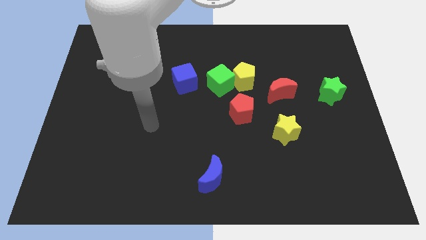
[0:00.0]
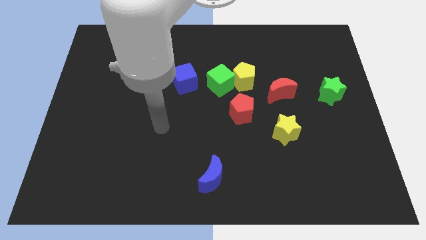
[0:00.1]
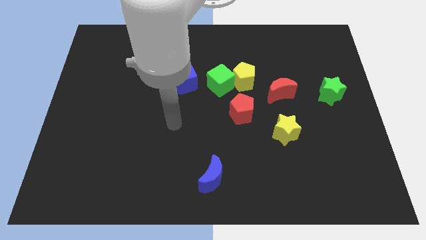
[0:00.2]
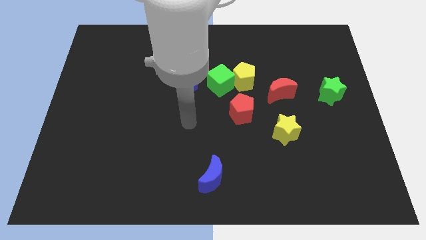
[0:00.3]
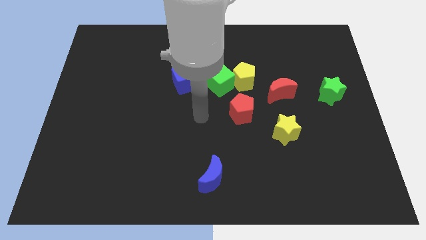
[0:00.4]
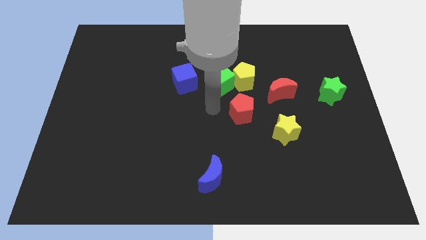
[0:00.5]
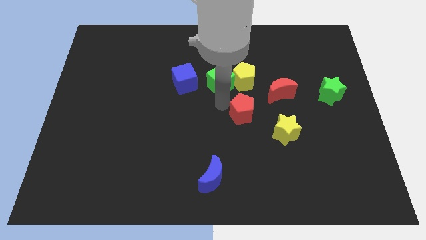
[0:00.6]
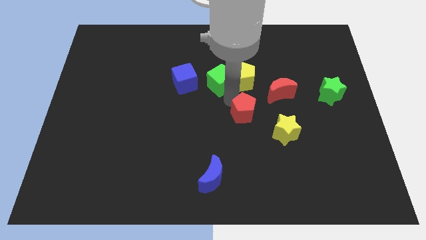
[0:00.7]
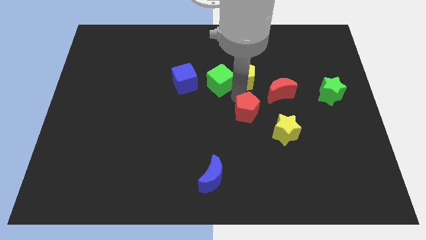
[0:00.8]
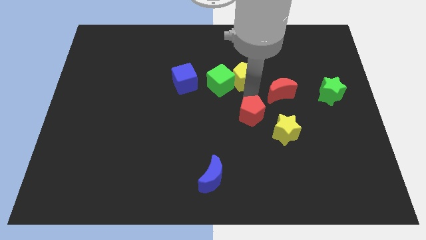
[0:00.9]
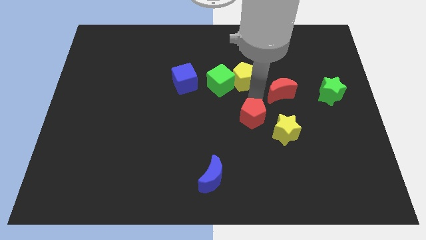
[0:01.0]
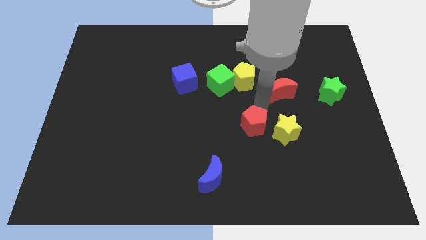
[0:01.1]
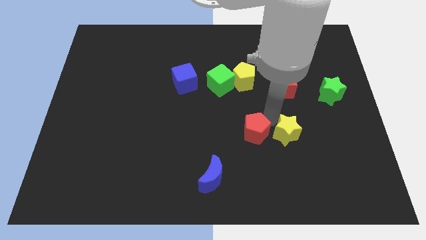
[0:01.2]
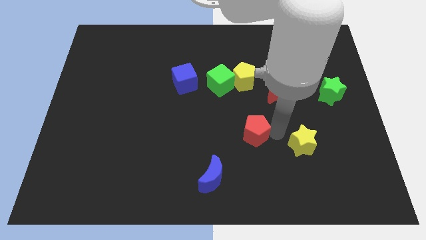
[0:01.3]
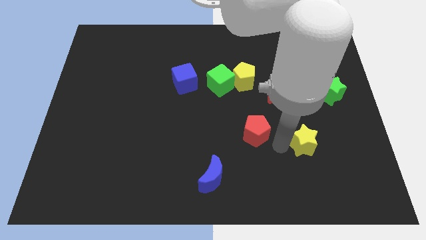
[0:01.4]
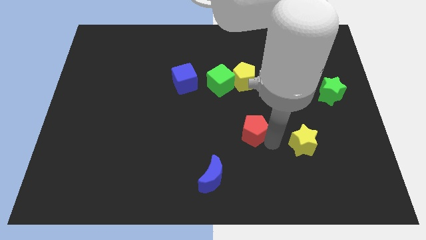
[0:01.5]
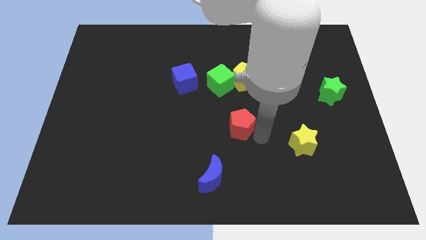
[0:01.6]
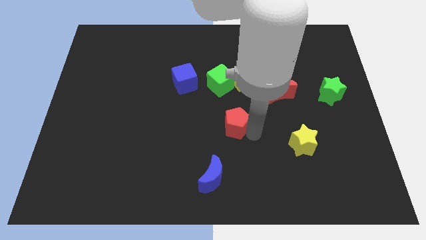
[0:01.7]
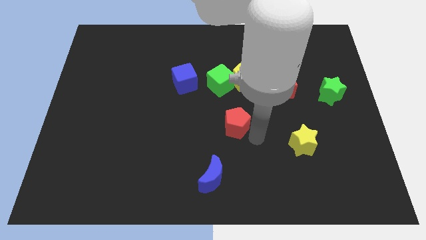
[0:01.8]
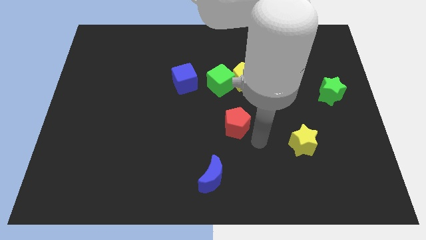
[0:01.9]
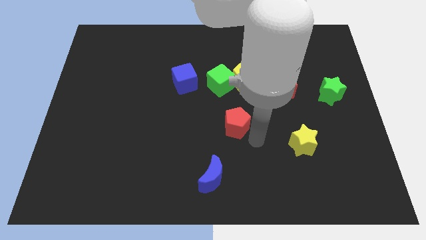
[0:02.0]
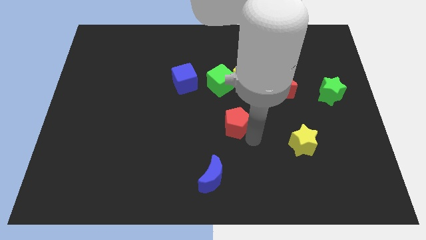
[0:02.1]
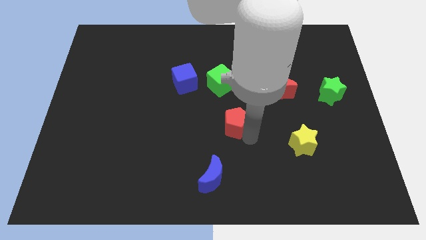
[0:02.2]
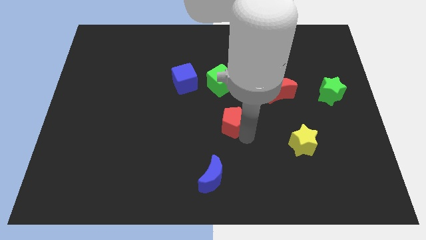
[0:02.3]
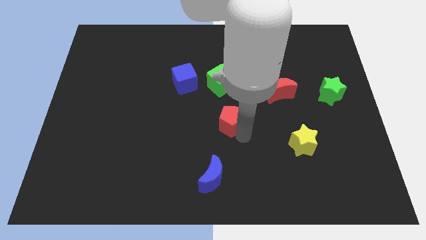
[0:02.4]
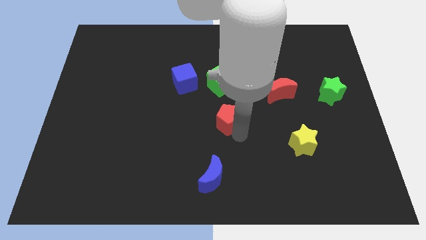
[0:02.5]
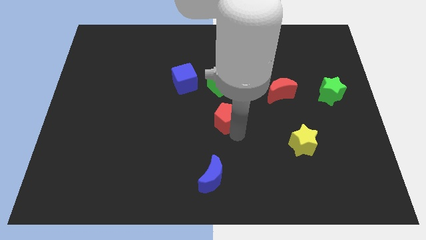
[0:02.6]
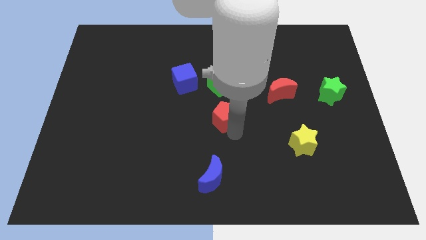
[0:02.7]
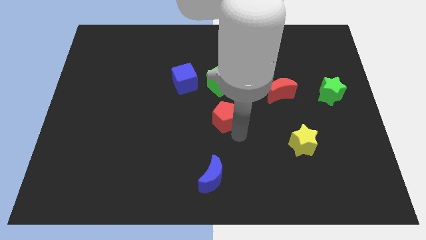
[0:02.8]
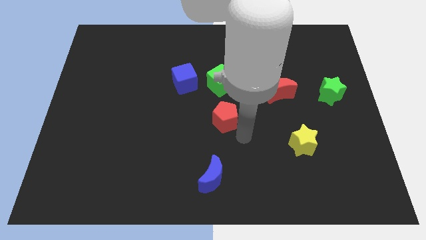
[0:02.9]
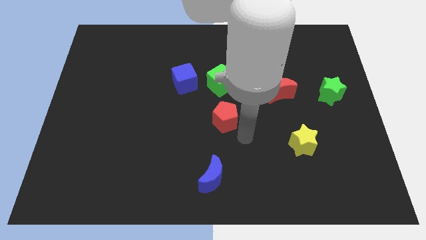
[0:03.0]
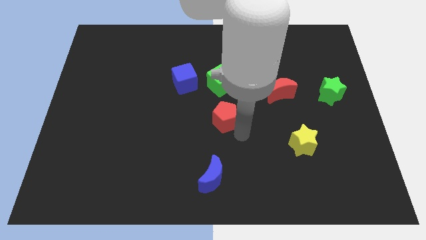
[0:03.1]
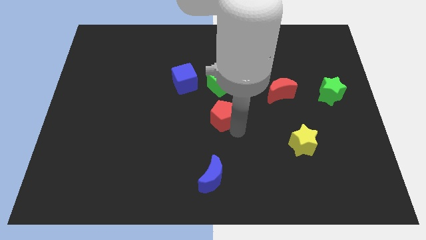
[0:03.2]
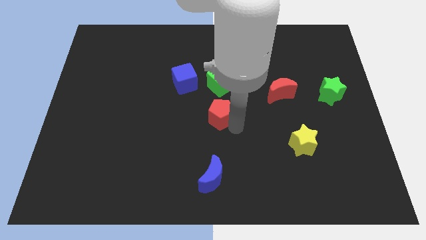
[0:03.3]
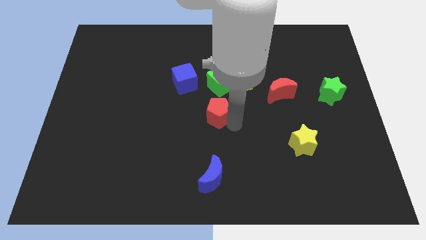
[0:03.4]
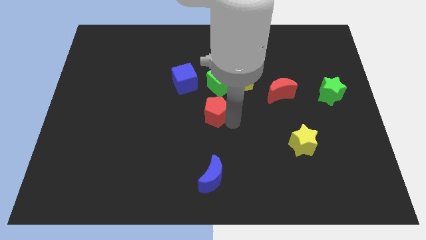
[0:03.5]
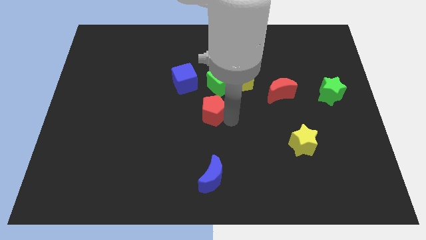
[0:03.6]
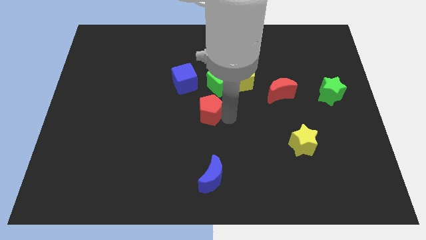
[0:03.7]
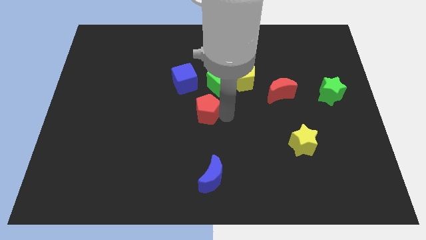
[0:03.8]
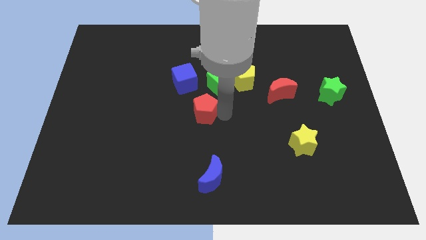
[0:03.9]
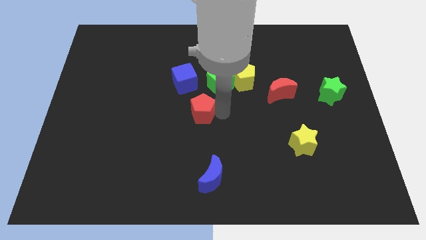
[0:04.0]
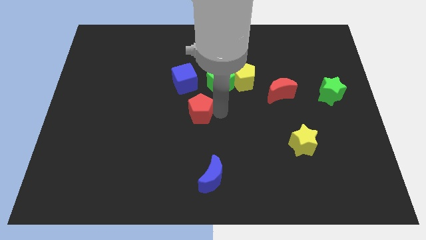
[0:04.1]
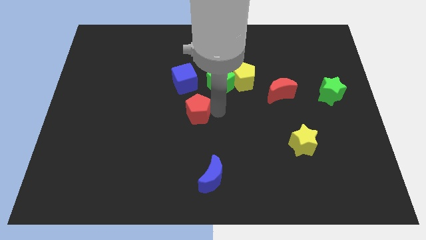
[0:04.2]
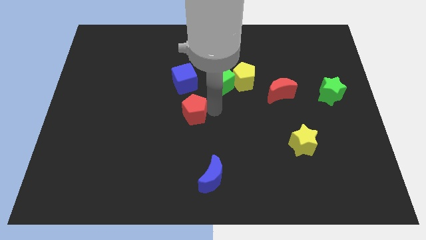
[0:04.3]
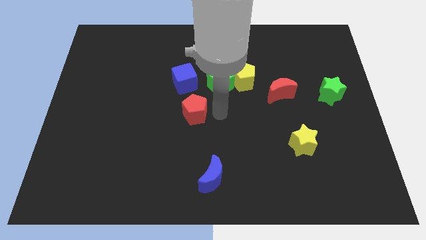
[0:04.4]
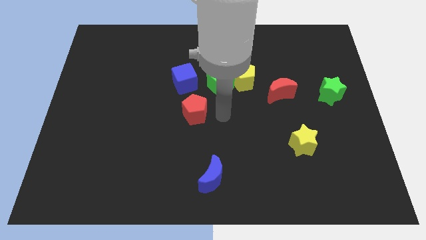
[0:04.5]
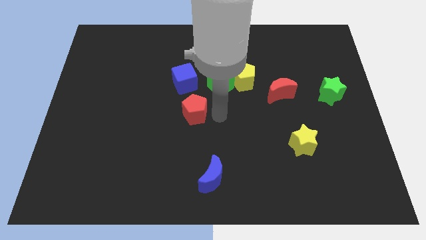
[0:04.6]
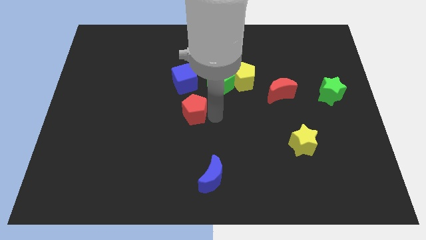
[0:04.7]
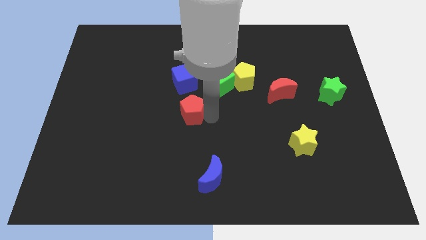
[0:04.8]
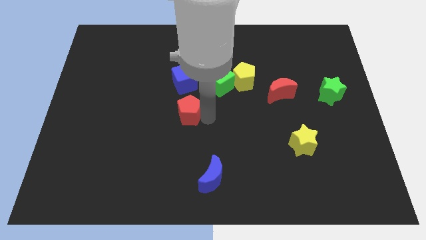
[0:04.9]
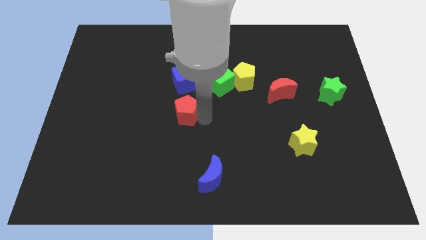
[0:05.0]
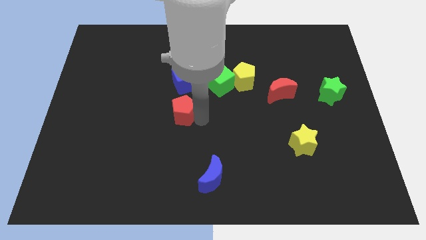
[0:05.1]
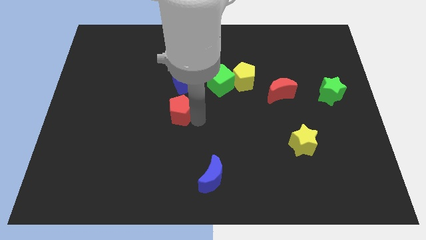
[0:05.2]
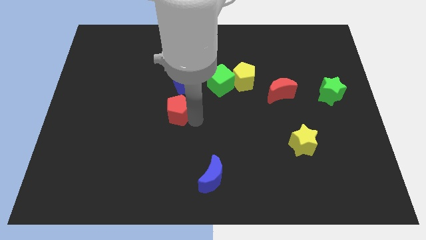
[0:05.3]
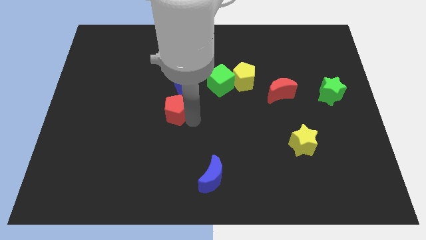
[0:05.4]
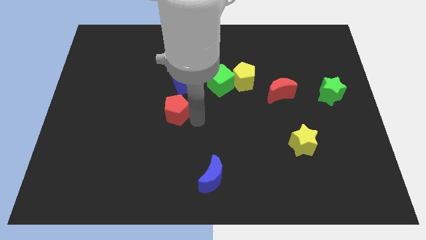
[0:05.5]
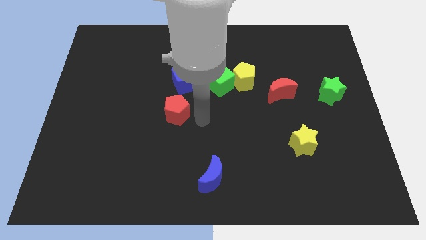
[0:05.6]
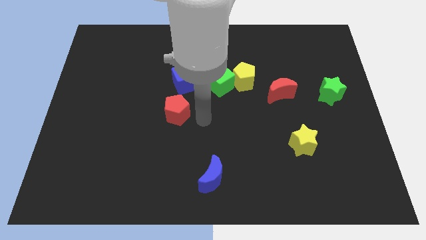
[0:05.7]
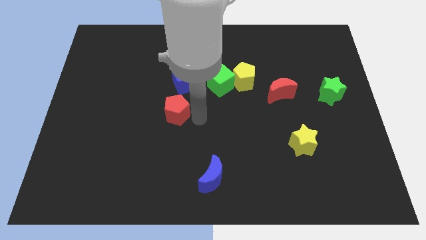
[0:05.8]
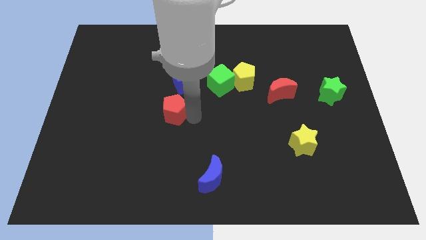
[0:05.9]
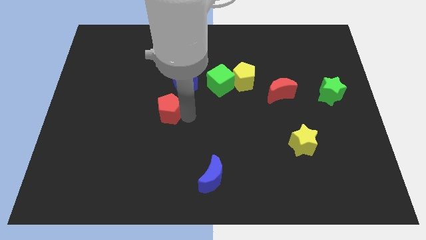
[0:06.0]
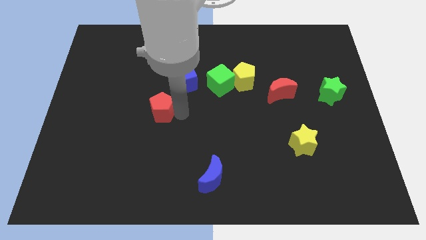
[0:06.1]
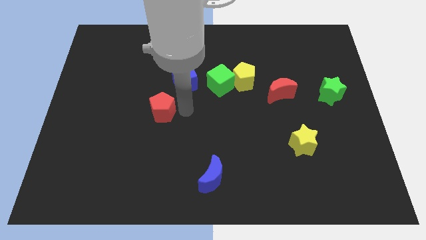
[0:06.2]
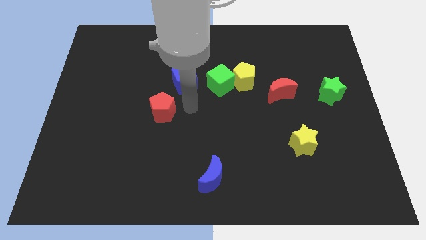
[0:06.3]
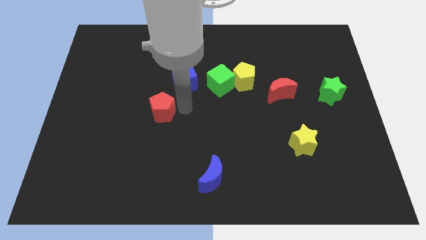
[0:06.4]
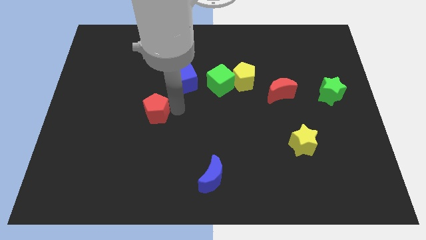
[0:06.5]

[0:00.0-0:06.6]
push the red pentagon left

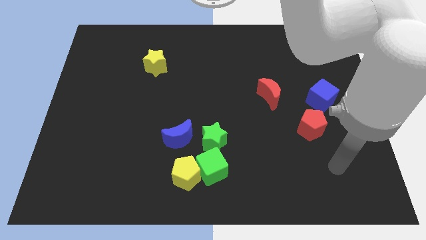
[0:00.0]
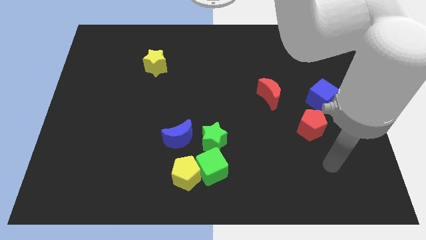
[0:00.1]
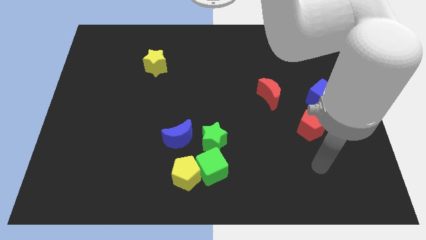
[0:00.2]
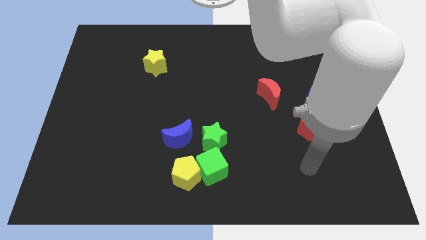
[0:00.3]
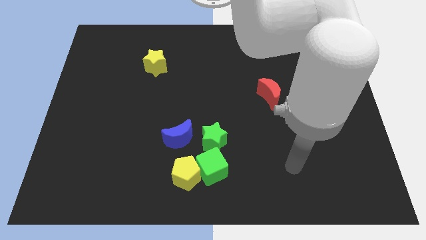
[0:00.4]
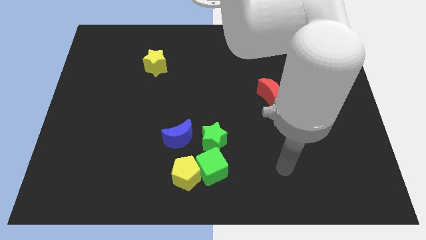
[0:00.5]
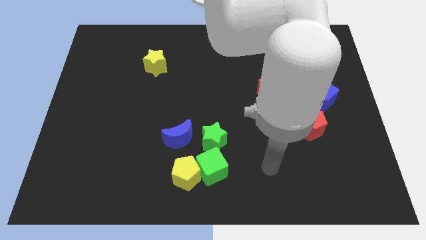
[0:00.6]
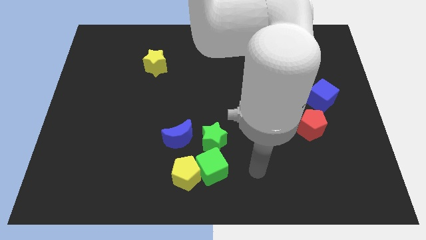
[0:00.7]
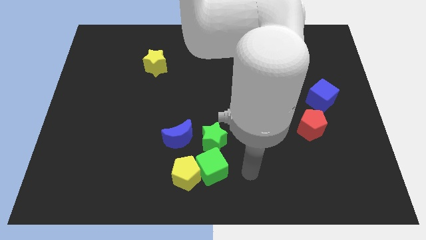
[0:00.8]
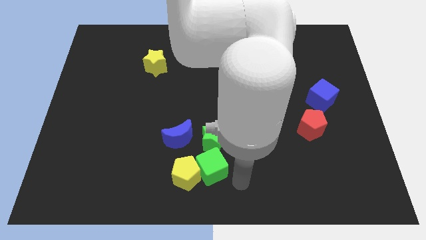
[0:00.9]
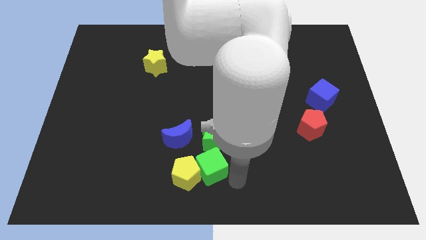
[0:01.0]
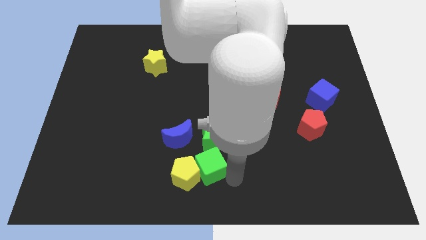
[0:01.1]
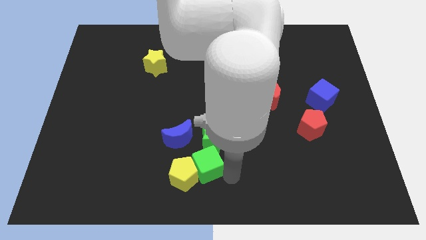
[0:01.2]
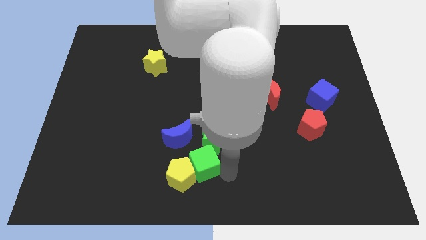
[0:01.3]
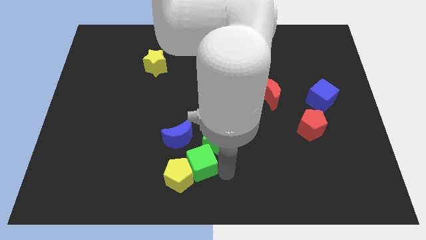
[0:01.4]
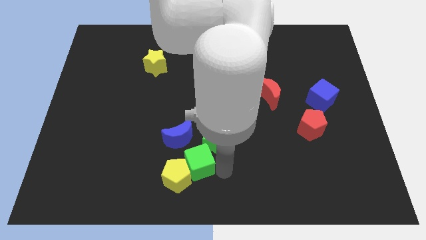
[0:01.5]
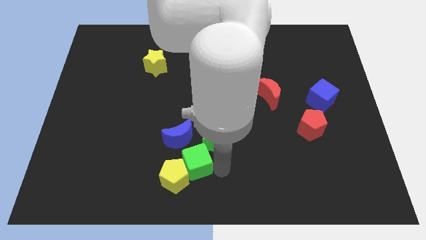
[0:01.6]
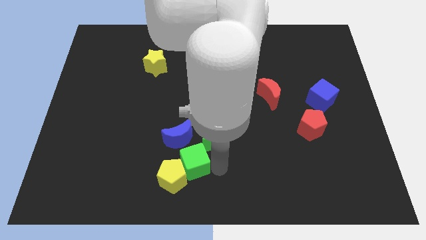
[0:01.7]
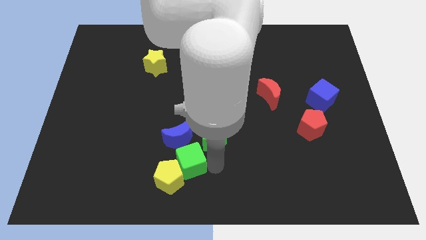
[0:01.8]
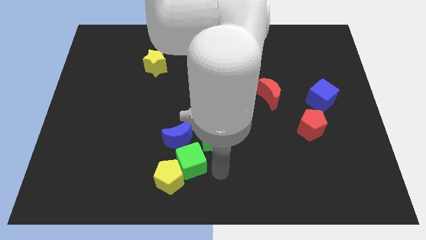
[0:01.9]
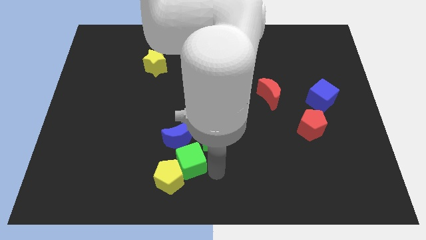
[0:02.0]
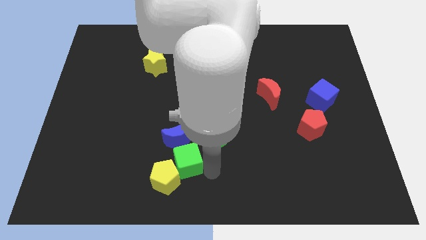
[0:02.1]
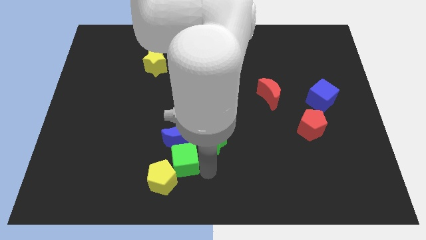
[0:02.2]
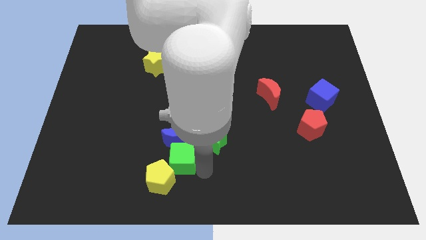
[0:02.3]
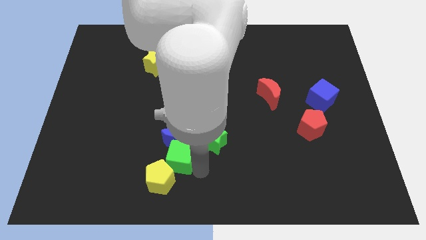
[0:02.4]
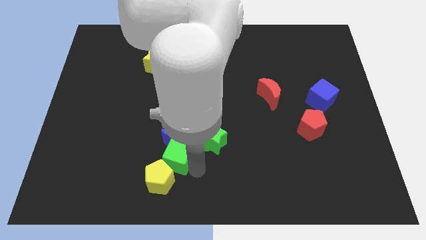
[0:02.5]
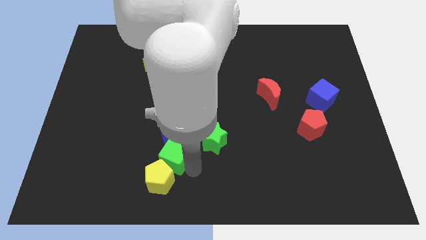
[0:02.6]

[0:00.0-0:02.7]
slightly move the green cube upwards and left diagonally
